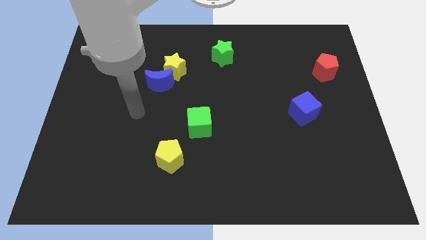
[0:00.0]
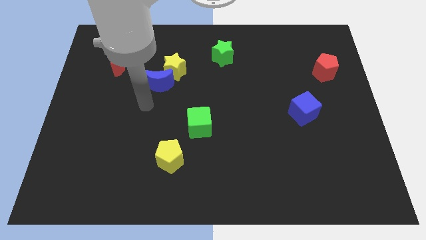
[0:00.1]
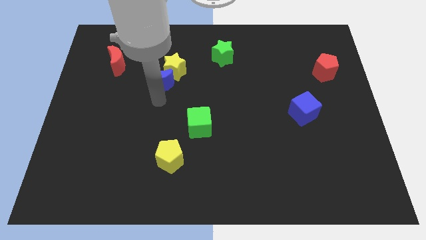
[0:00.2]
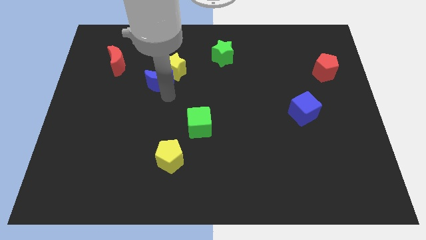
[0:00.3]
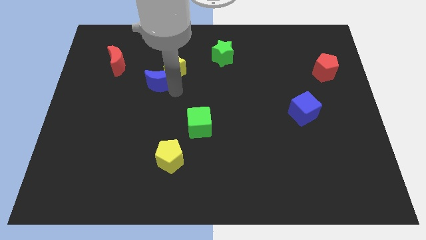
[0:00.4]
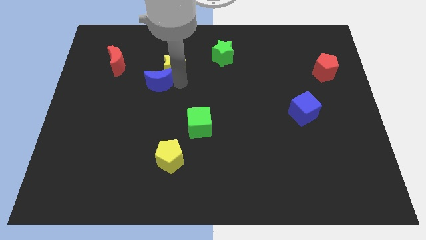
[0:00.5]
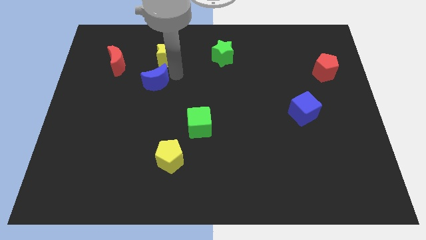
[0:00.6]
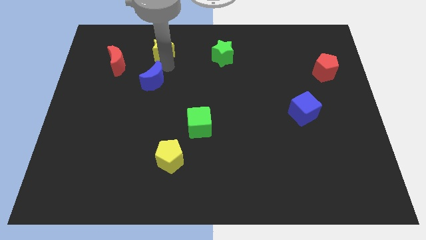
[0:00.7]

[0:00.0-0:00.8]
separate the blue moon from the yellow star

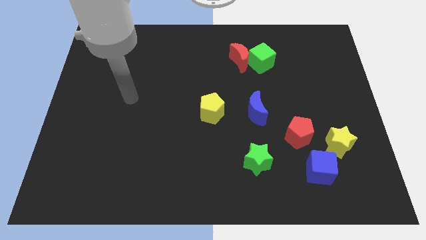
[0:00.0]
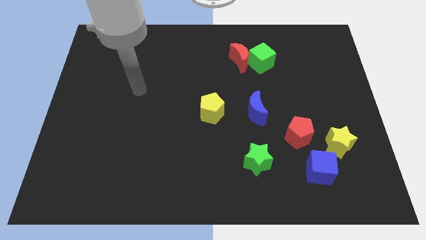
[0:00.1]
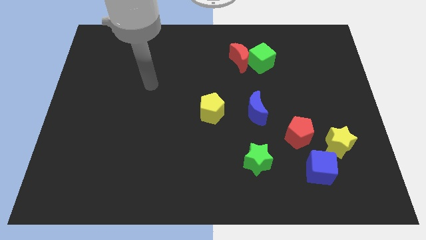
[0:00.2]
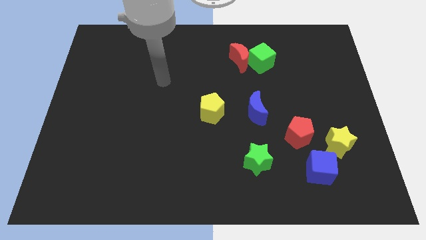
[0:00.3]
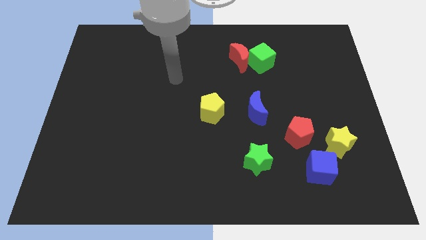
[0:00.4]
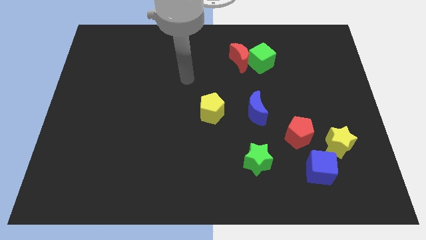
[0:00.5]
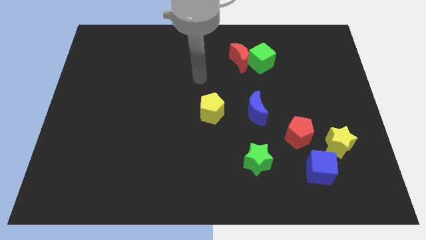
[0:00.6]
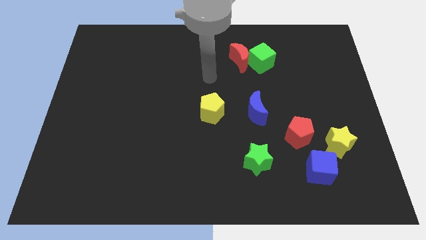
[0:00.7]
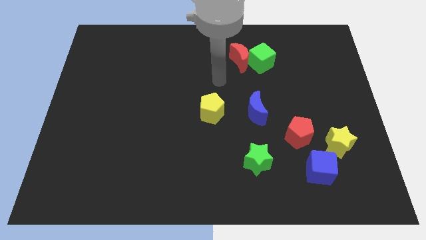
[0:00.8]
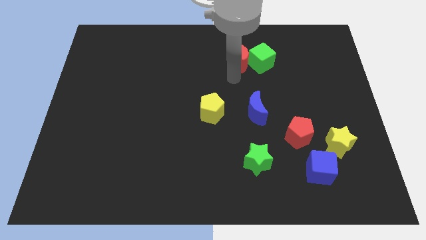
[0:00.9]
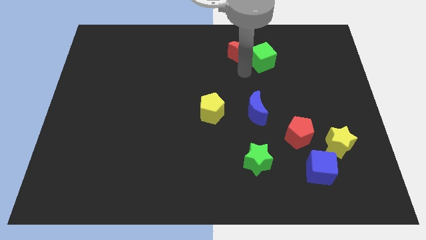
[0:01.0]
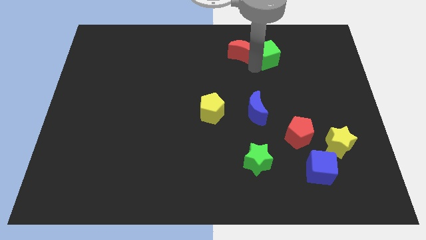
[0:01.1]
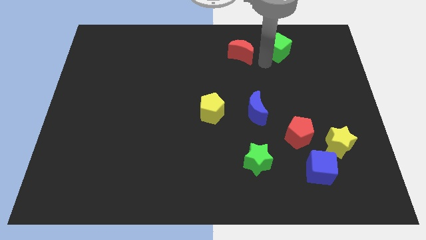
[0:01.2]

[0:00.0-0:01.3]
separate the red moon from the green cube

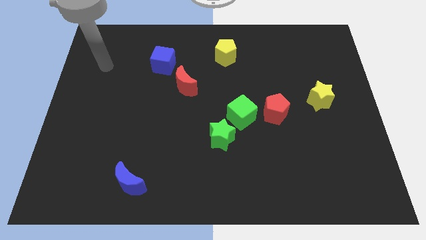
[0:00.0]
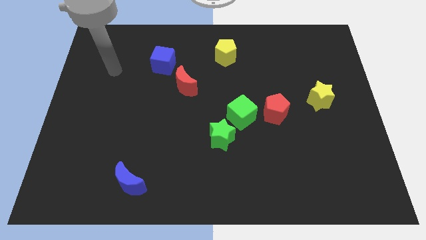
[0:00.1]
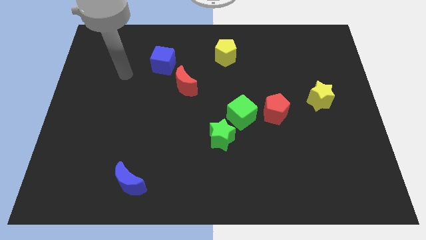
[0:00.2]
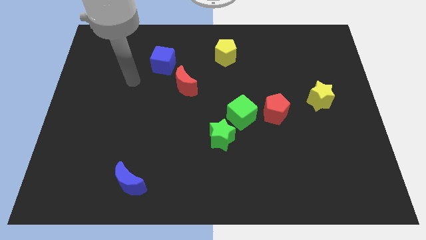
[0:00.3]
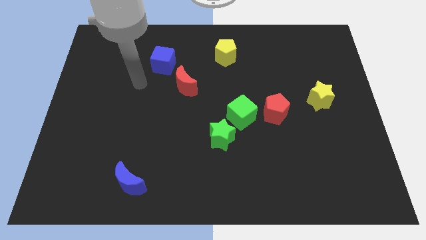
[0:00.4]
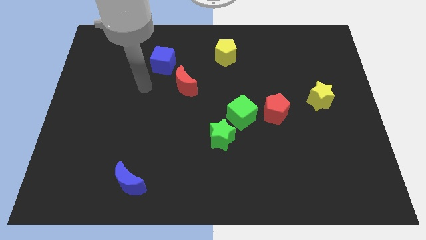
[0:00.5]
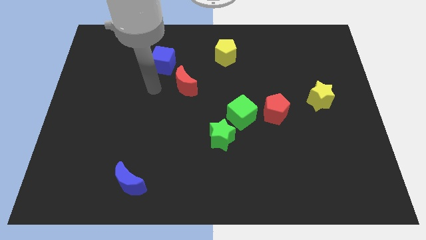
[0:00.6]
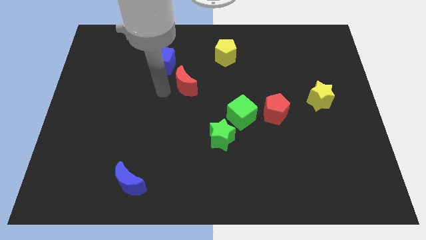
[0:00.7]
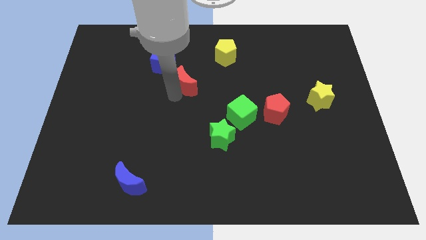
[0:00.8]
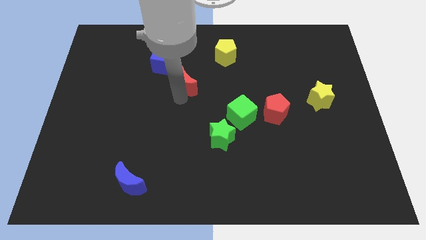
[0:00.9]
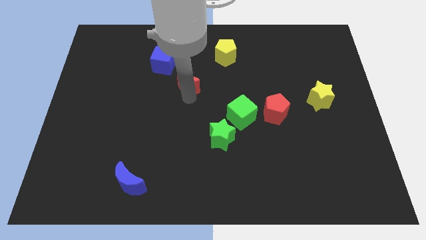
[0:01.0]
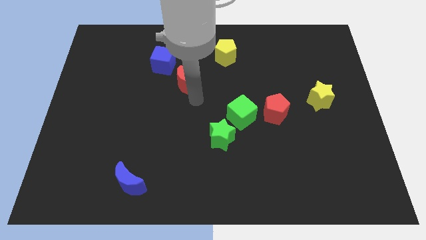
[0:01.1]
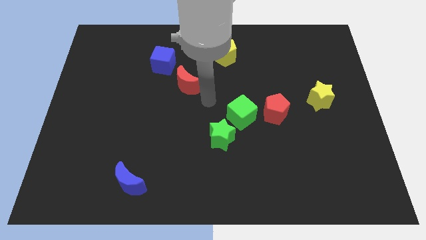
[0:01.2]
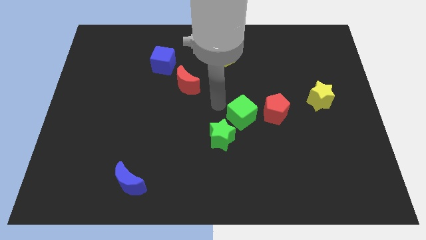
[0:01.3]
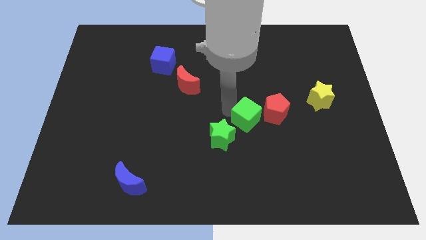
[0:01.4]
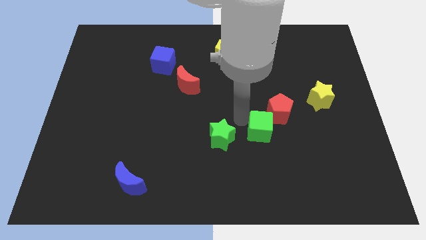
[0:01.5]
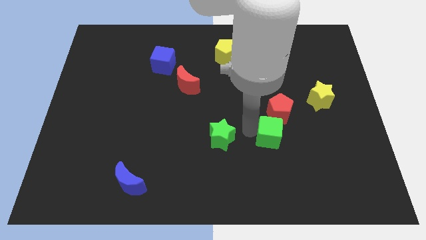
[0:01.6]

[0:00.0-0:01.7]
pull the green star apart from the green cube

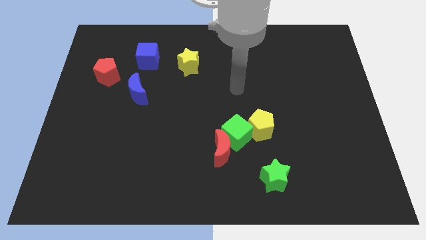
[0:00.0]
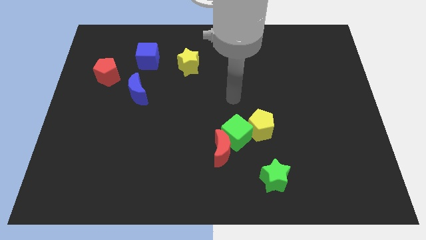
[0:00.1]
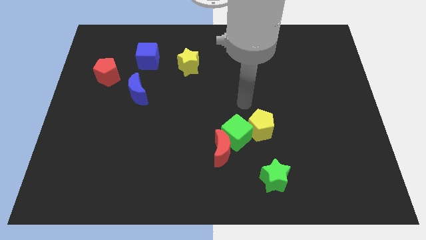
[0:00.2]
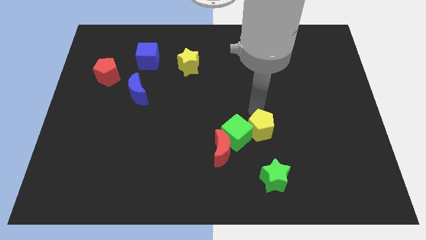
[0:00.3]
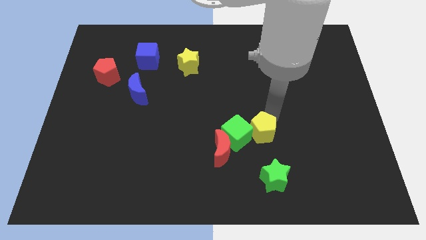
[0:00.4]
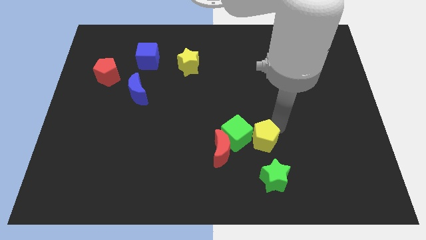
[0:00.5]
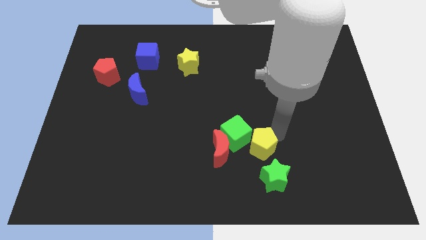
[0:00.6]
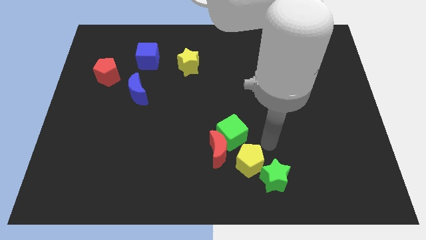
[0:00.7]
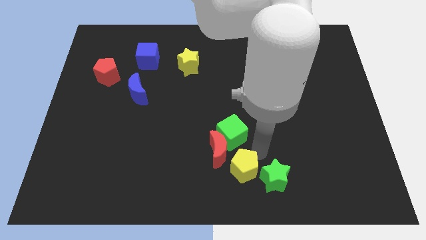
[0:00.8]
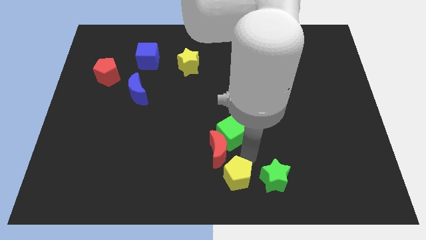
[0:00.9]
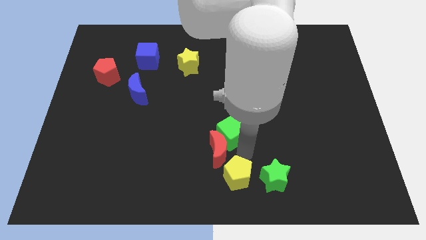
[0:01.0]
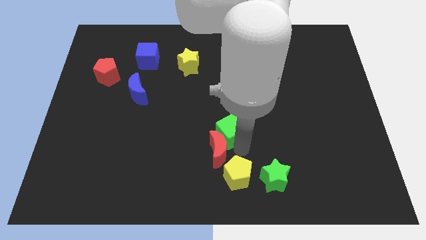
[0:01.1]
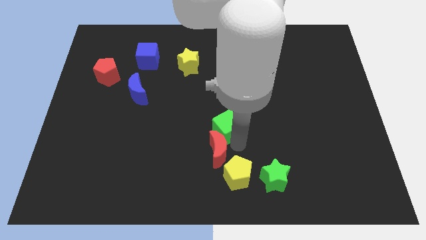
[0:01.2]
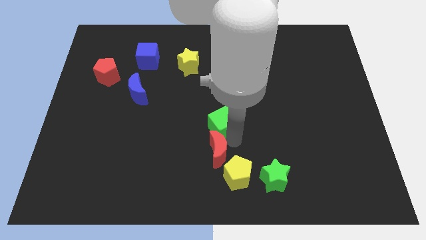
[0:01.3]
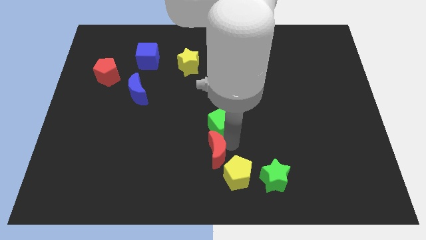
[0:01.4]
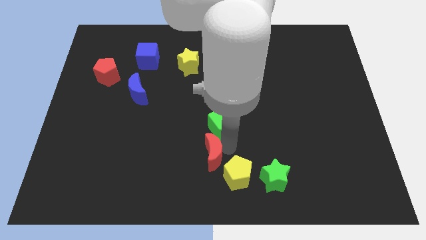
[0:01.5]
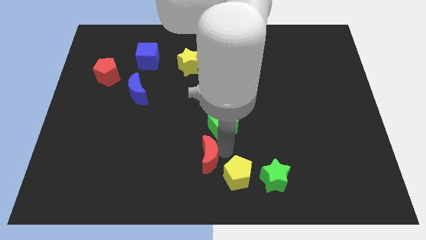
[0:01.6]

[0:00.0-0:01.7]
move the green cube away from the red moon and yellow pentagon

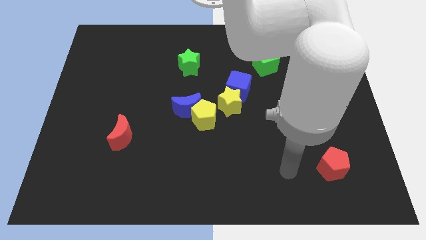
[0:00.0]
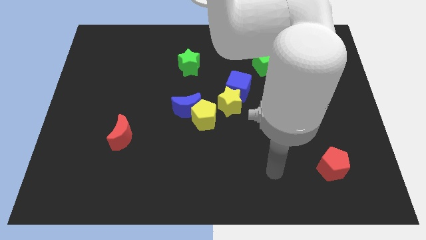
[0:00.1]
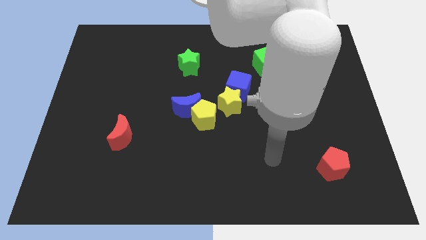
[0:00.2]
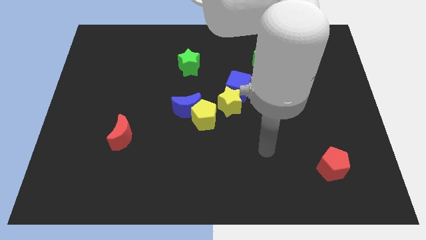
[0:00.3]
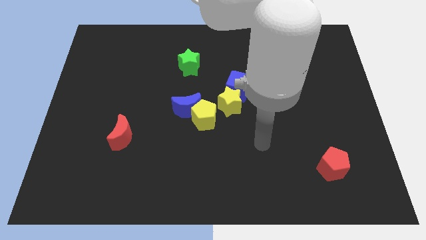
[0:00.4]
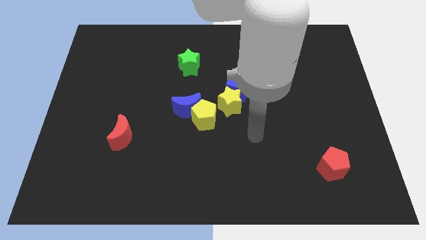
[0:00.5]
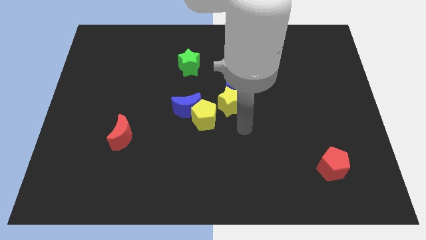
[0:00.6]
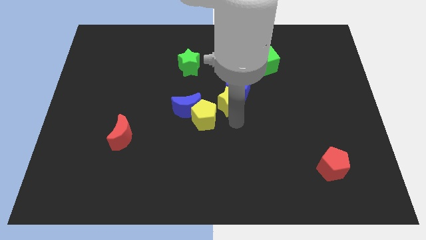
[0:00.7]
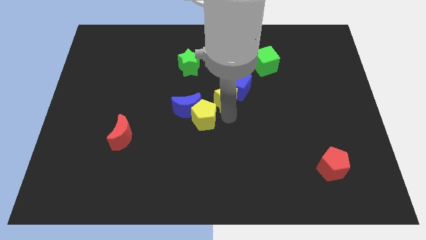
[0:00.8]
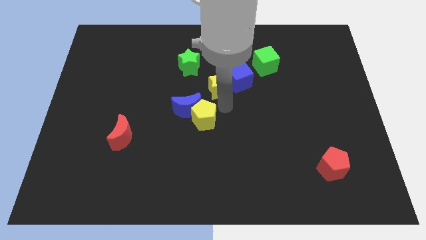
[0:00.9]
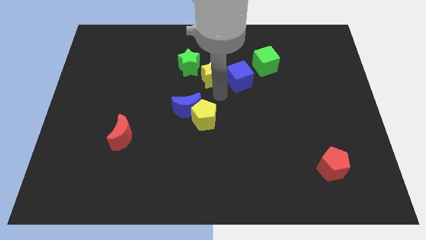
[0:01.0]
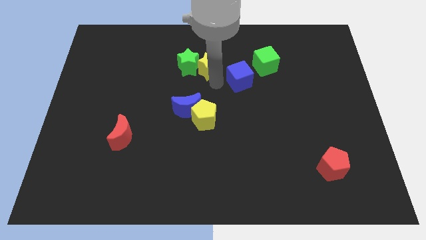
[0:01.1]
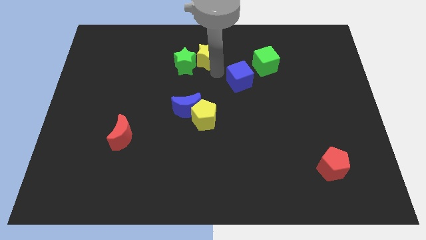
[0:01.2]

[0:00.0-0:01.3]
pull the blue cube apart from the yellow star

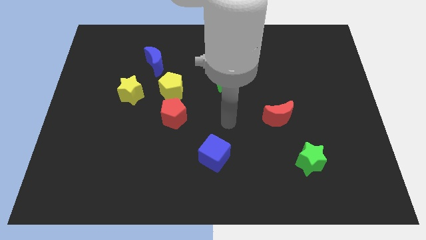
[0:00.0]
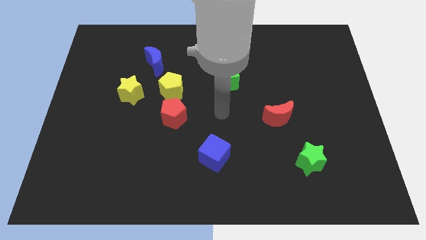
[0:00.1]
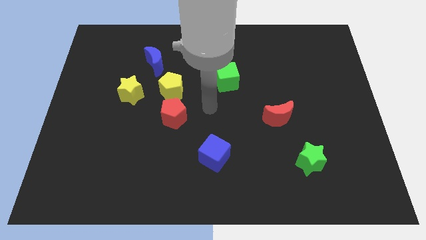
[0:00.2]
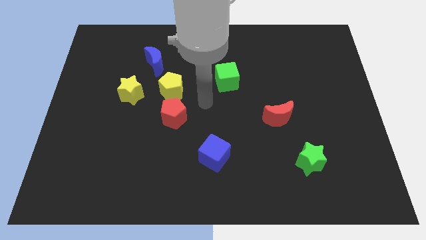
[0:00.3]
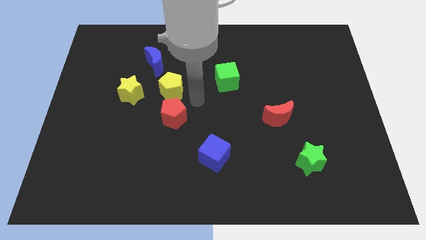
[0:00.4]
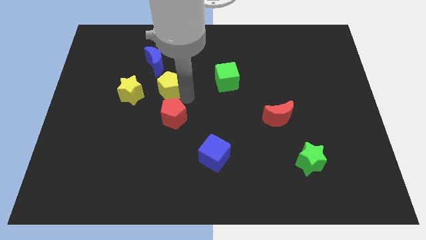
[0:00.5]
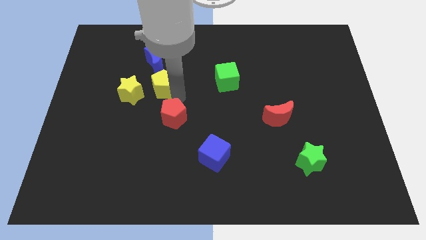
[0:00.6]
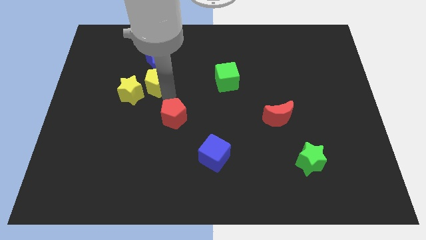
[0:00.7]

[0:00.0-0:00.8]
separate the red pentagon from the yellow pentagon

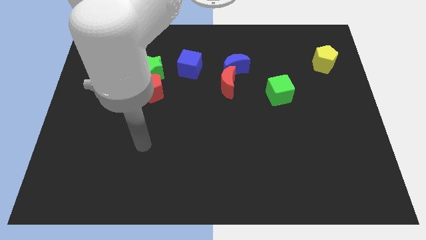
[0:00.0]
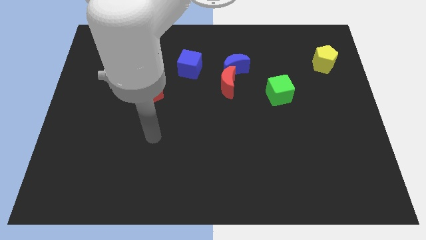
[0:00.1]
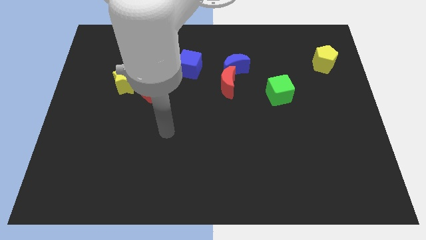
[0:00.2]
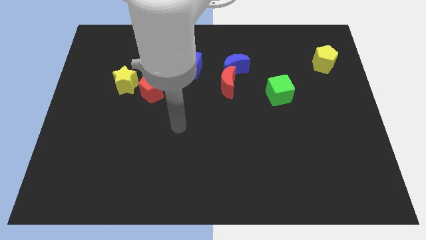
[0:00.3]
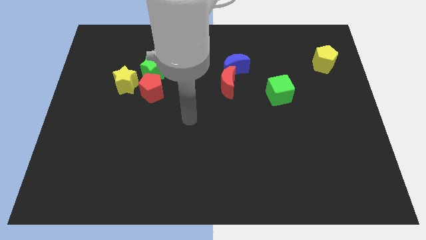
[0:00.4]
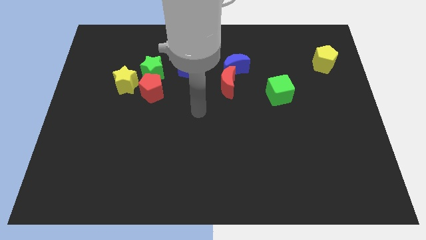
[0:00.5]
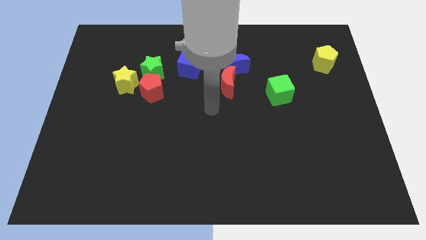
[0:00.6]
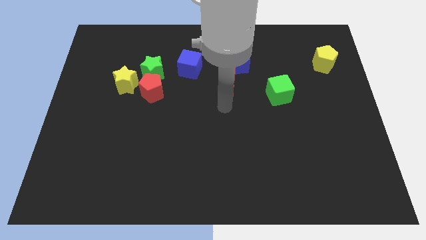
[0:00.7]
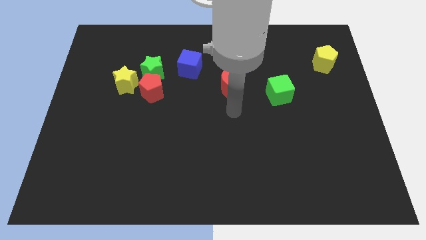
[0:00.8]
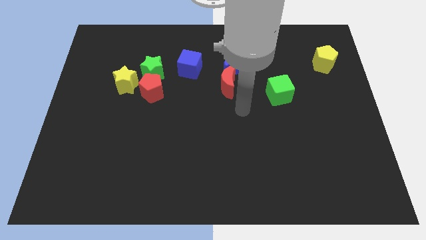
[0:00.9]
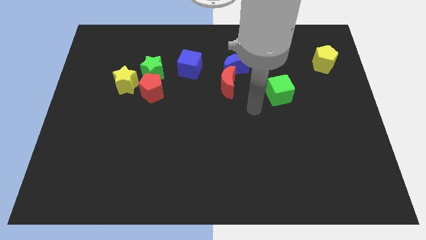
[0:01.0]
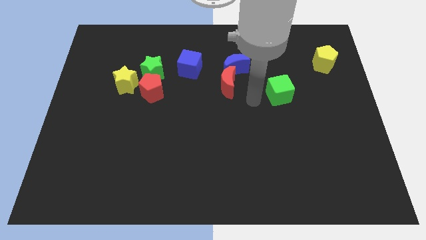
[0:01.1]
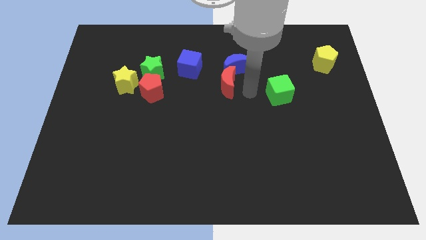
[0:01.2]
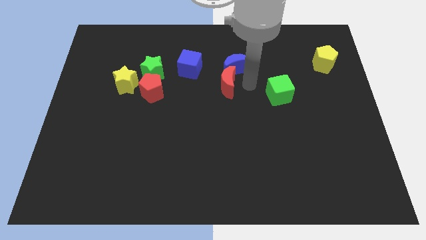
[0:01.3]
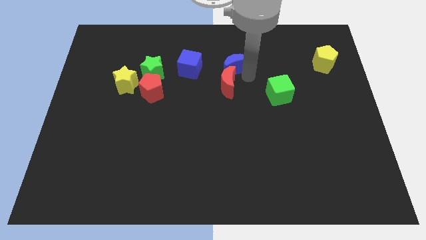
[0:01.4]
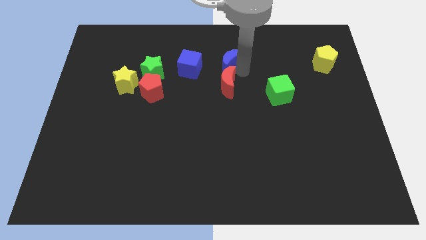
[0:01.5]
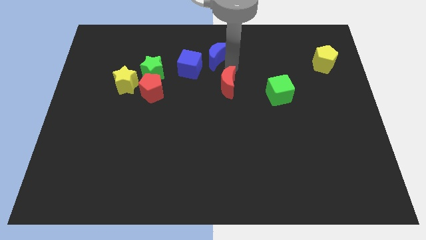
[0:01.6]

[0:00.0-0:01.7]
separate the red moon from the blue moon
